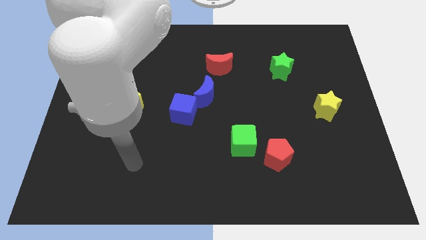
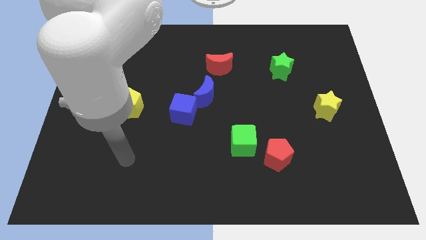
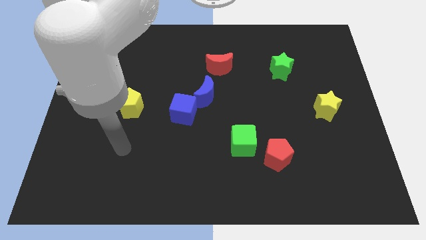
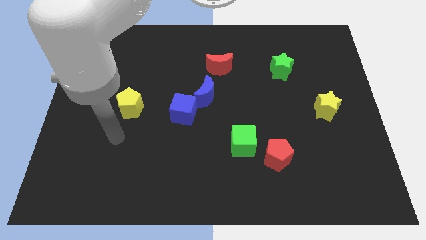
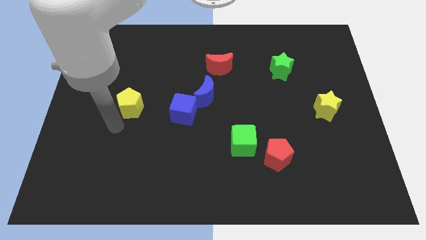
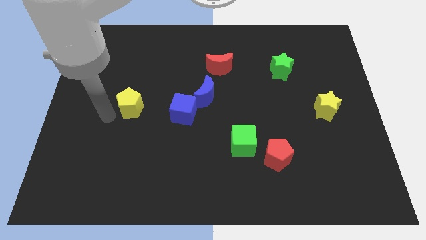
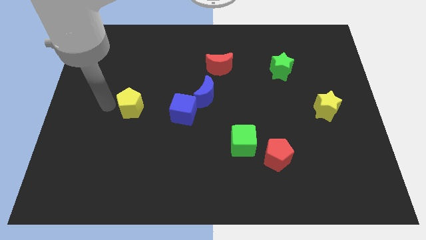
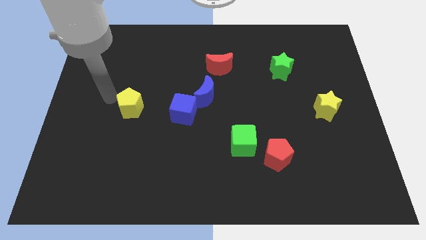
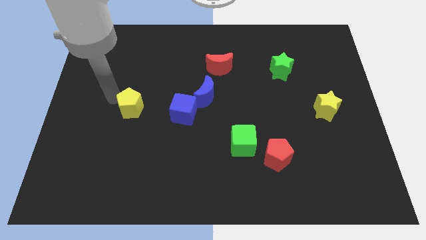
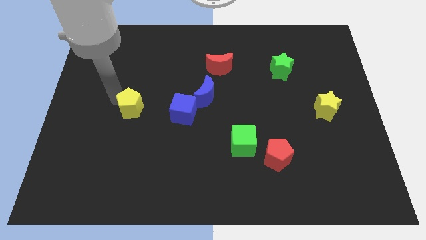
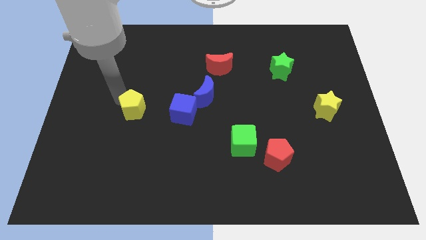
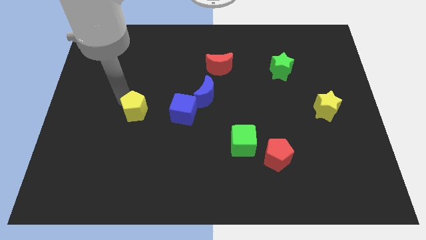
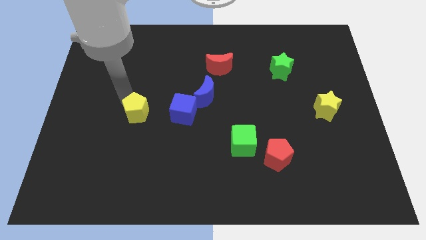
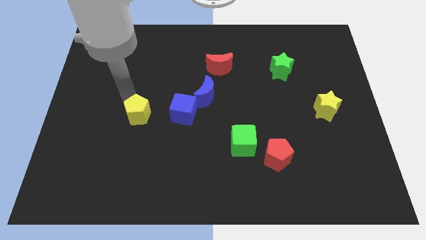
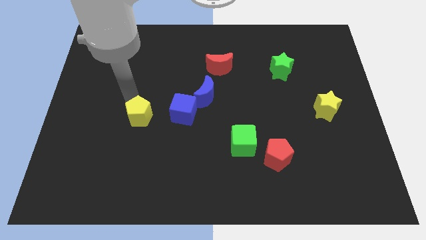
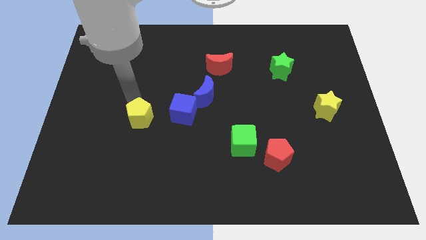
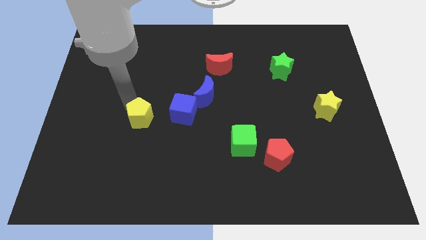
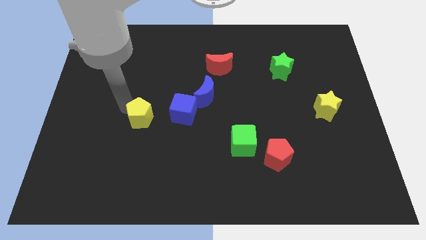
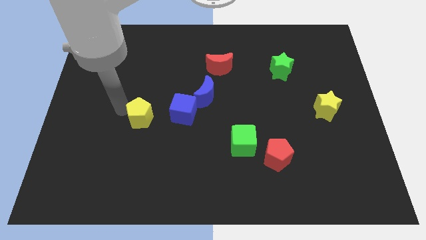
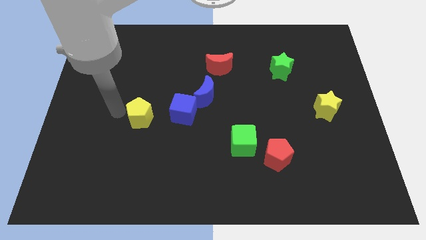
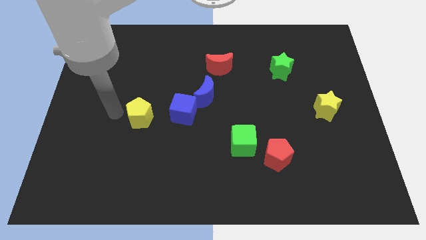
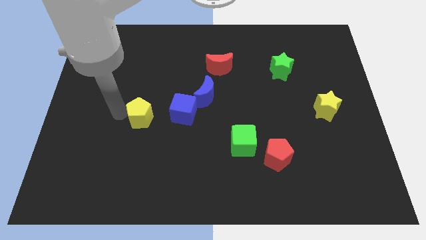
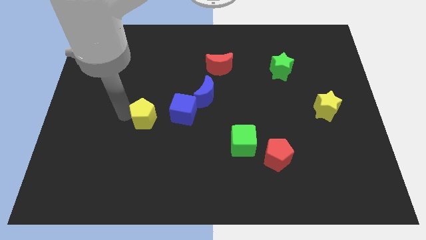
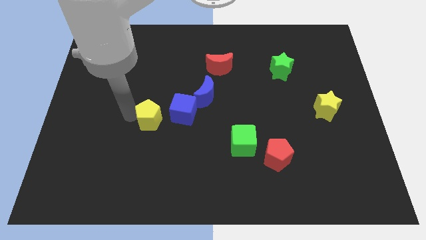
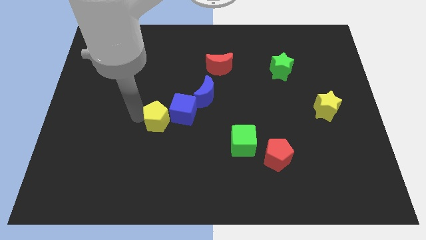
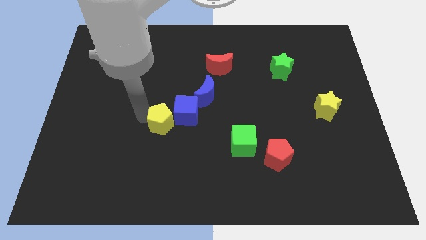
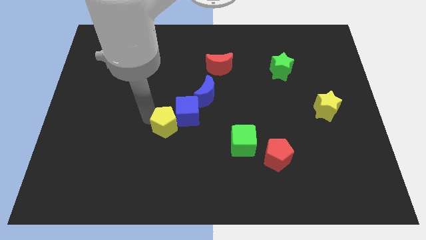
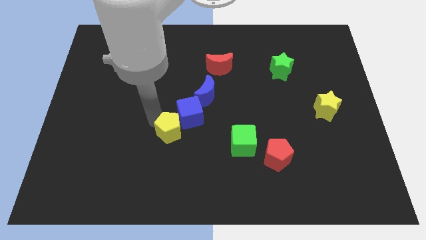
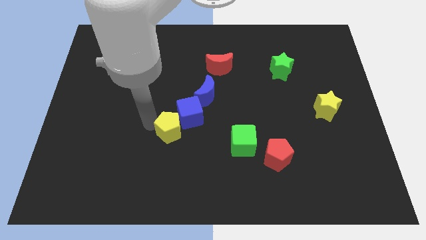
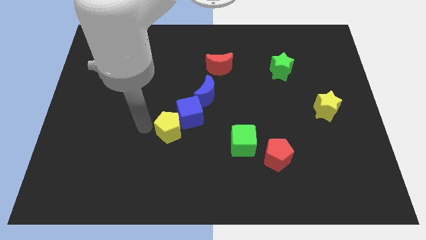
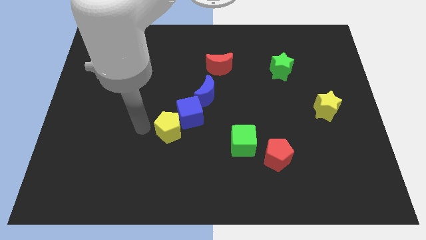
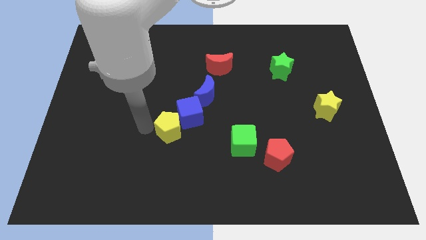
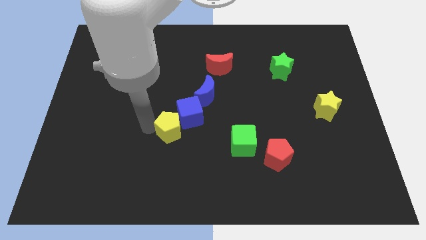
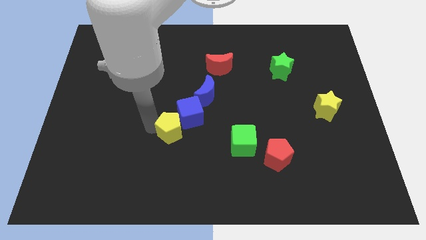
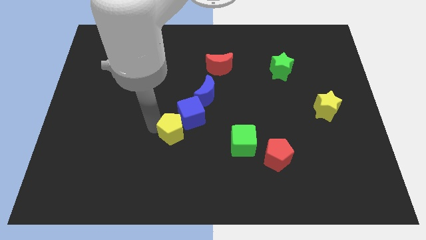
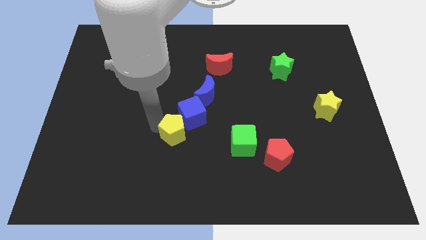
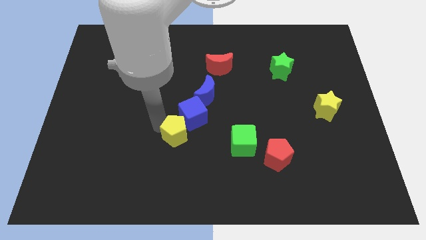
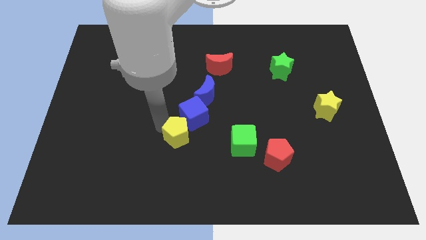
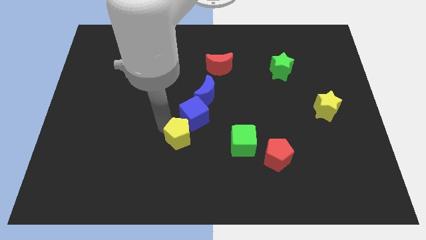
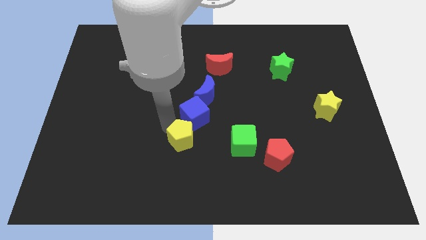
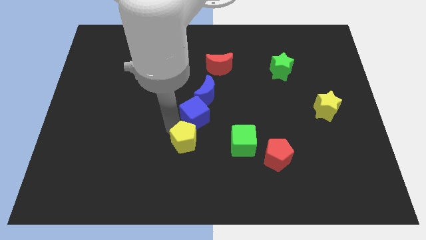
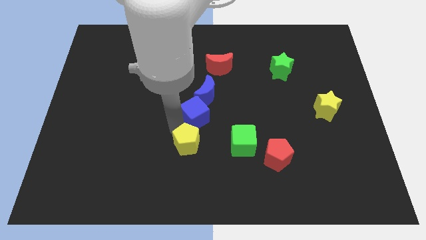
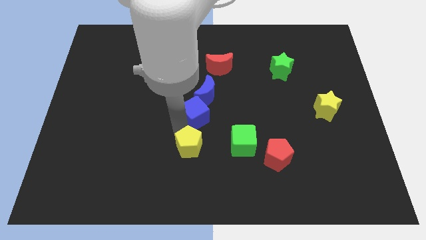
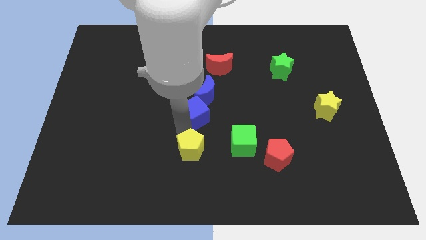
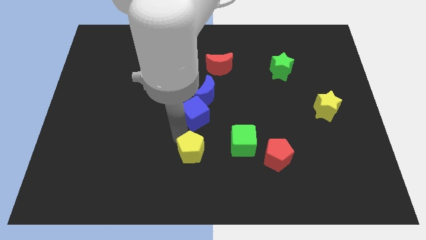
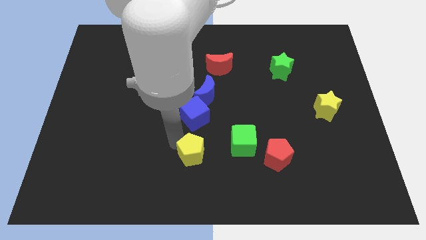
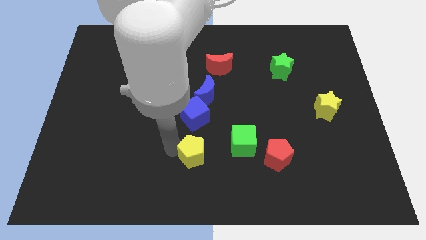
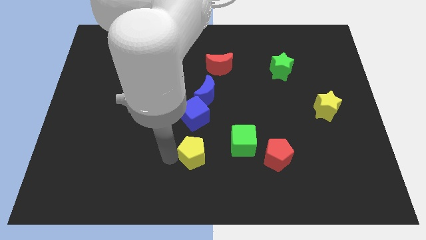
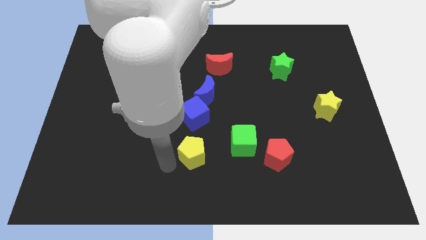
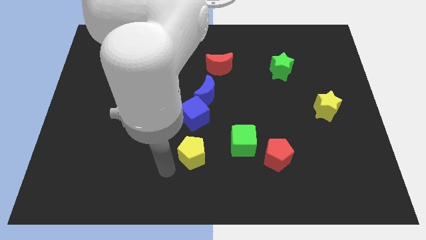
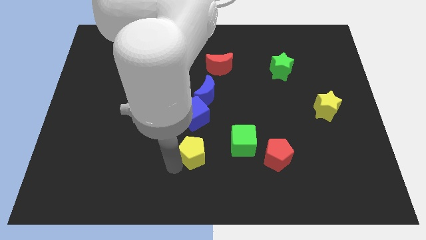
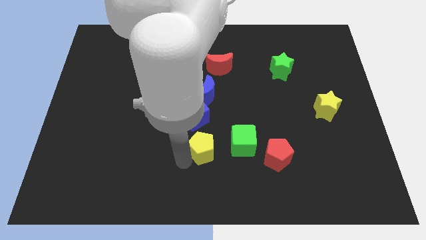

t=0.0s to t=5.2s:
put the yellow pentagon to the left side of the red pentagon

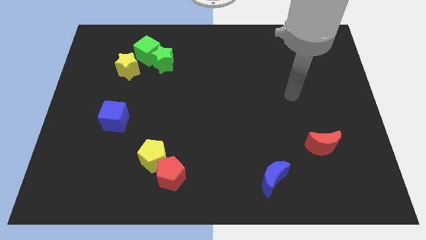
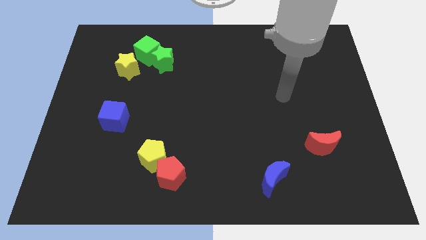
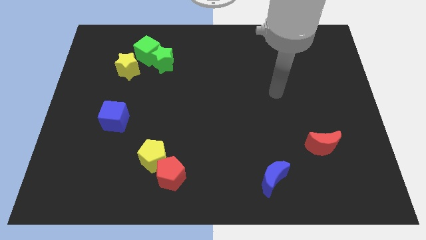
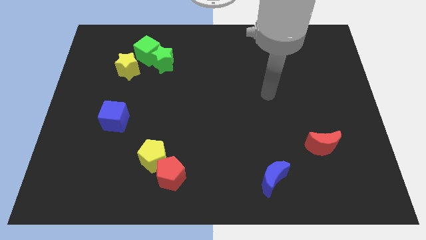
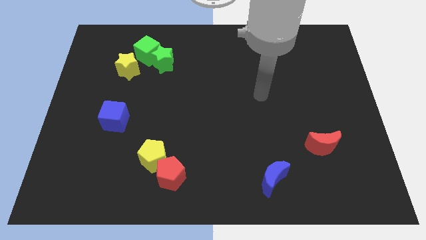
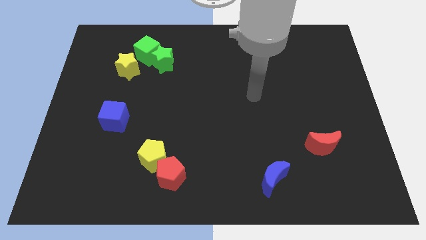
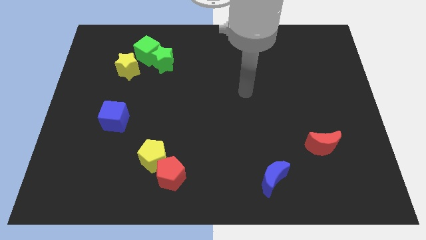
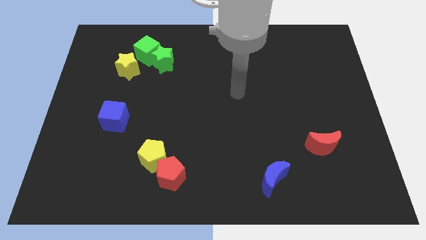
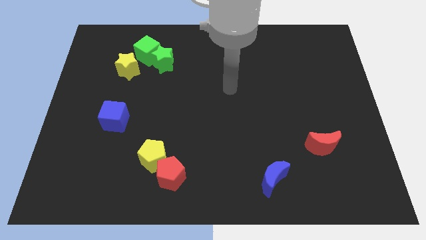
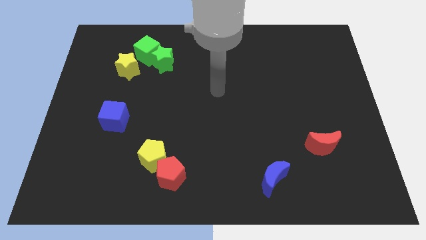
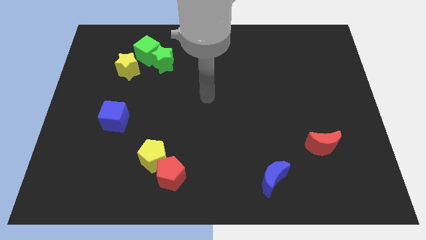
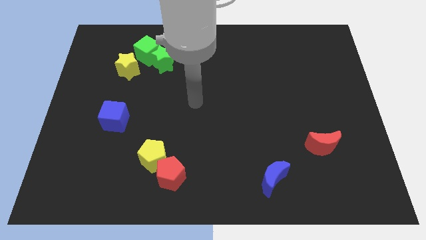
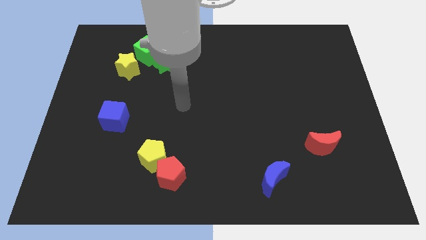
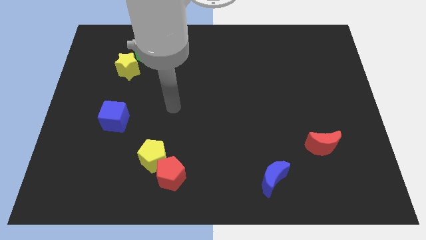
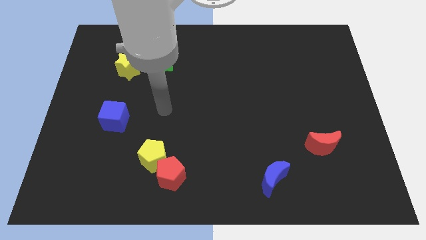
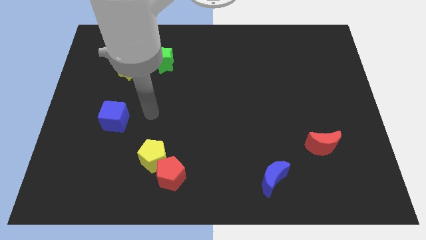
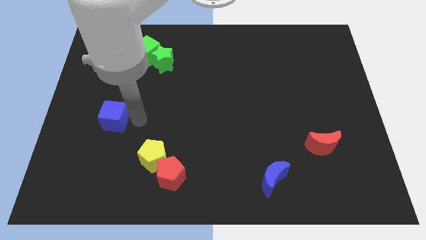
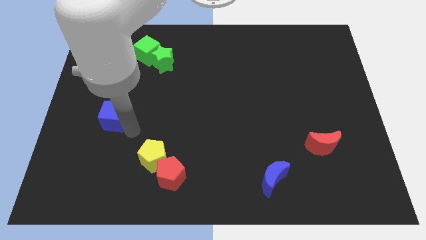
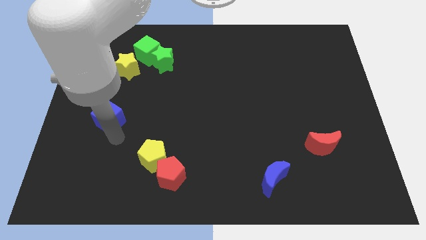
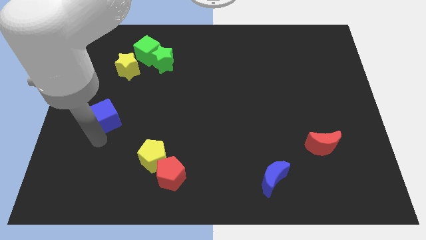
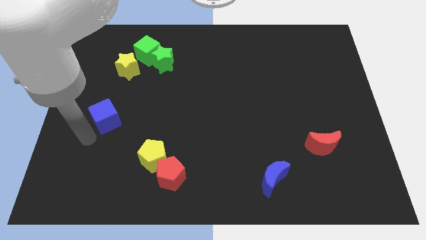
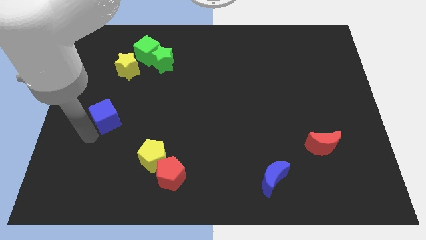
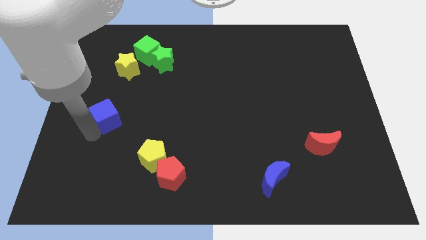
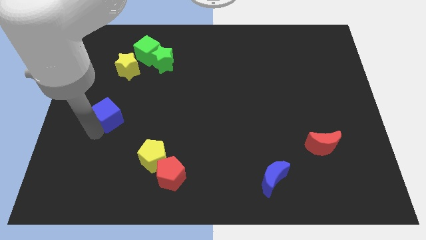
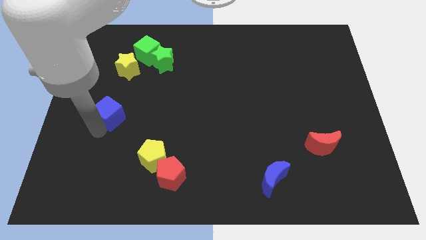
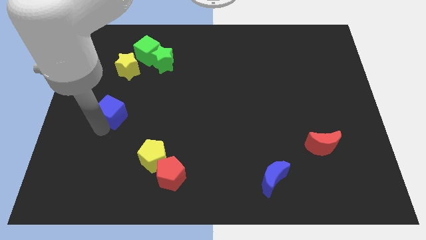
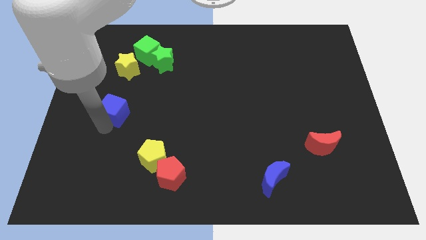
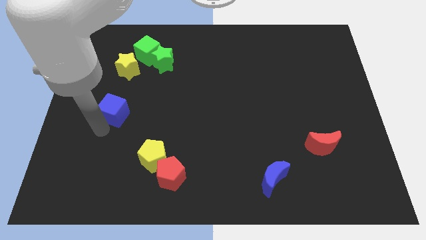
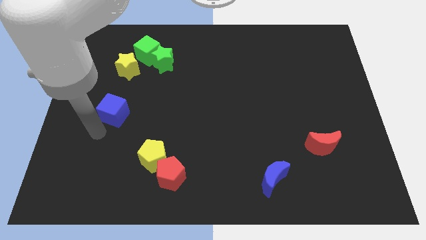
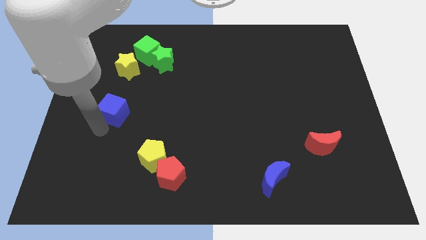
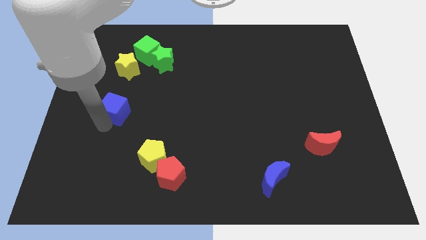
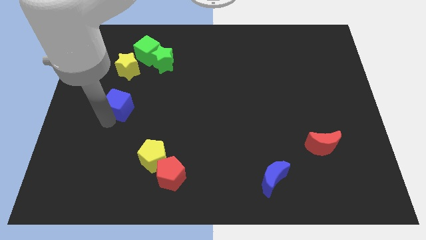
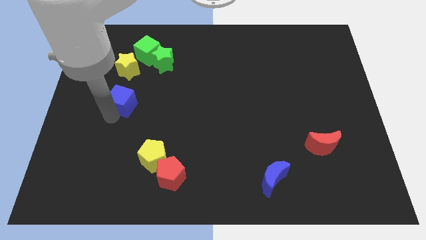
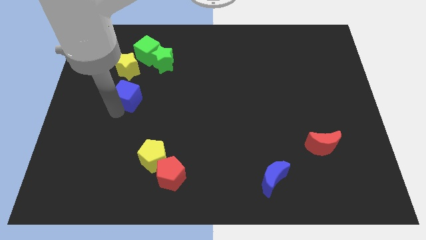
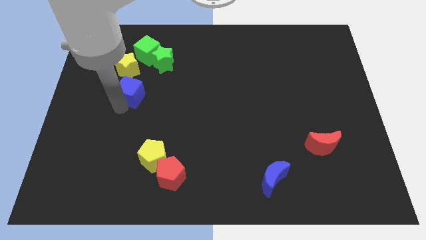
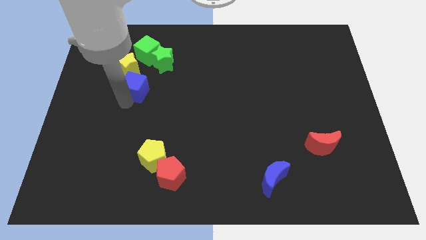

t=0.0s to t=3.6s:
put the blue cube diagonally down and to the left of the green star

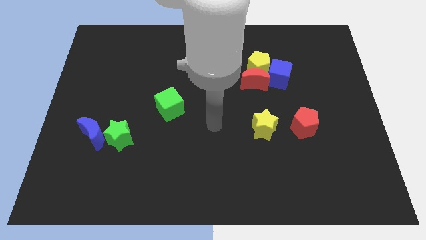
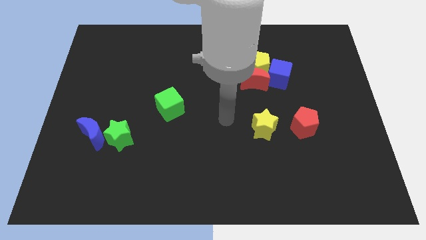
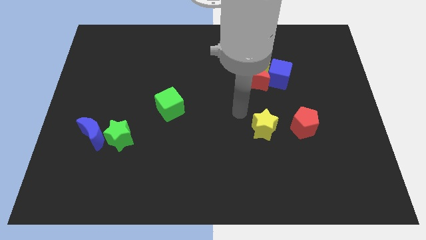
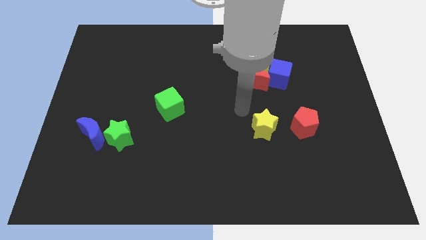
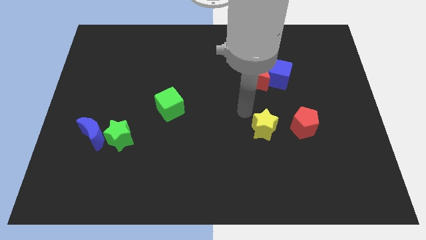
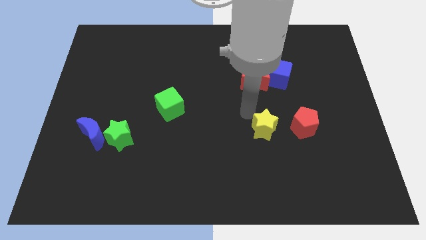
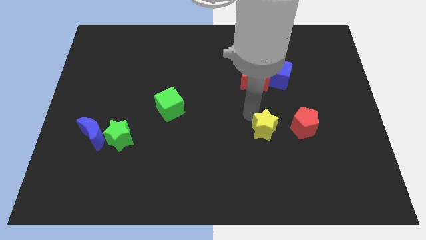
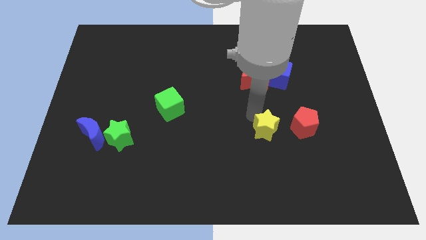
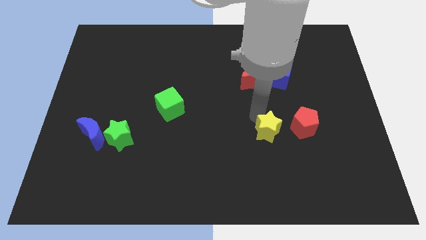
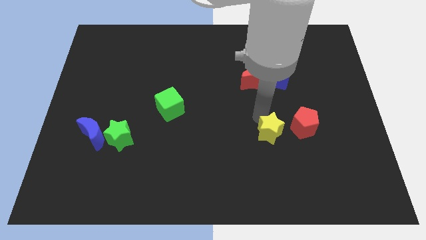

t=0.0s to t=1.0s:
put the yellow star to the bottom left side of the red pentagon
